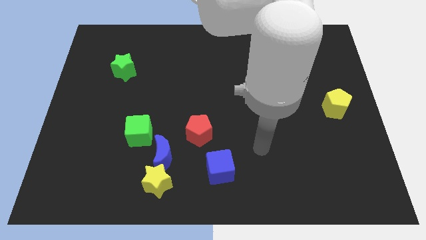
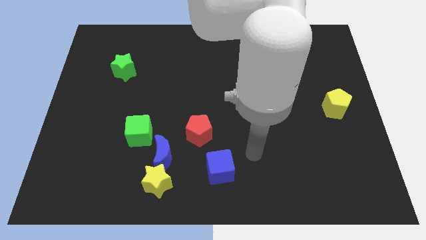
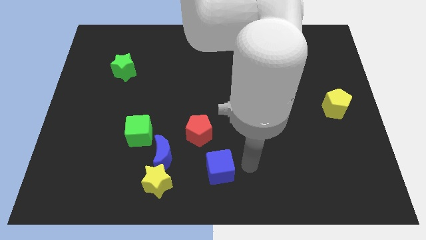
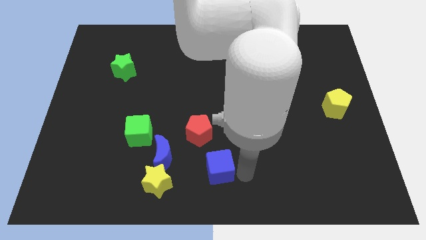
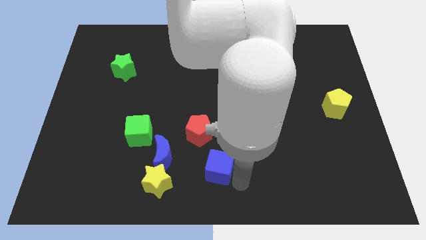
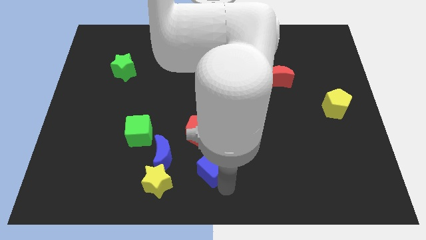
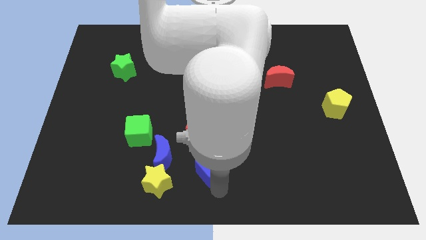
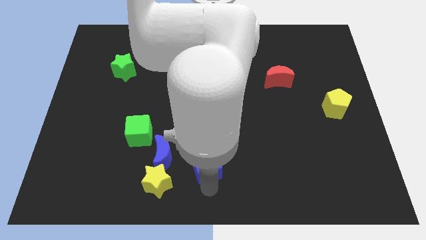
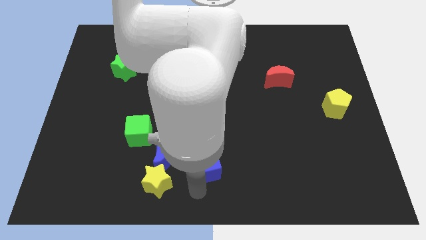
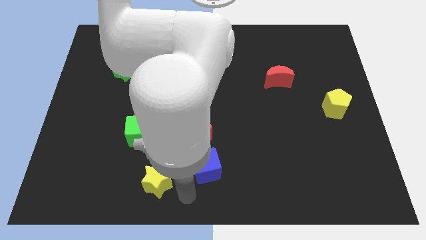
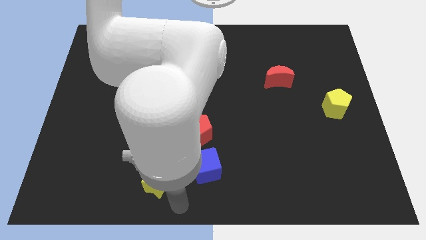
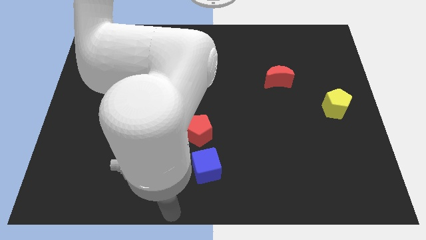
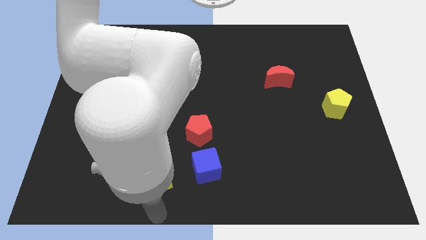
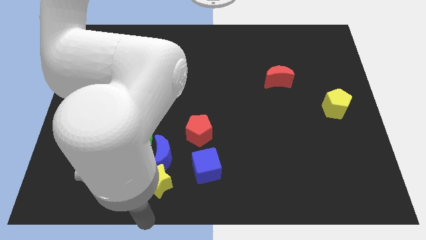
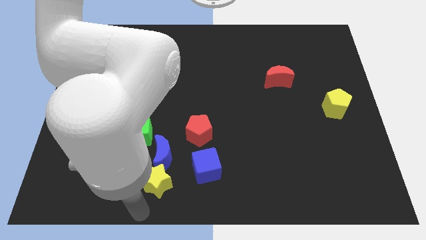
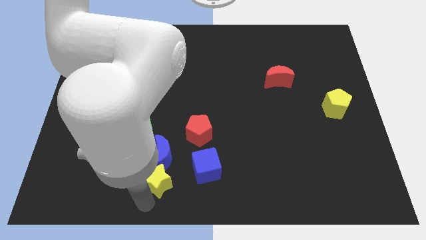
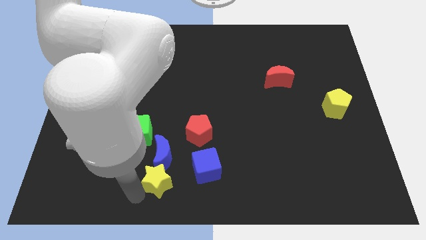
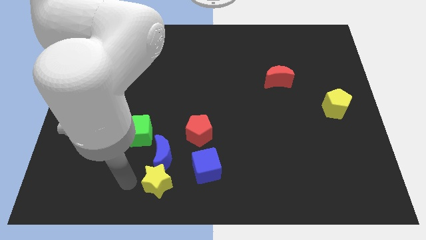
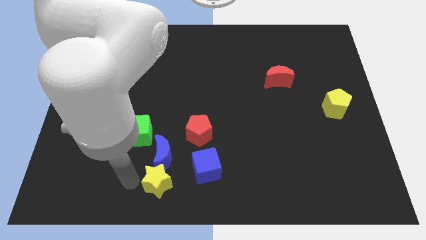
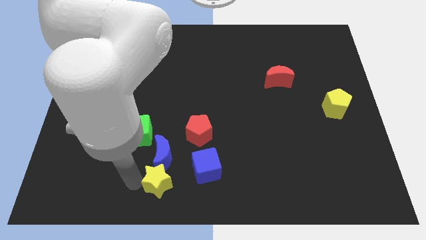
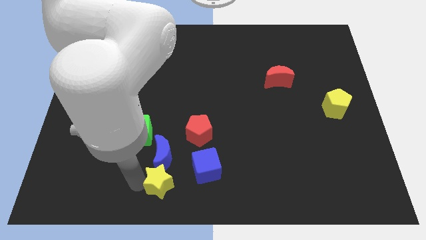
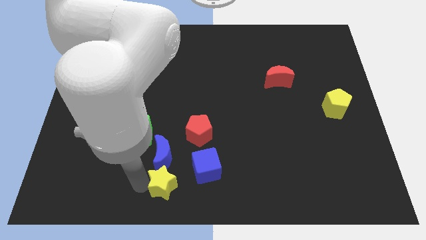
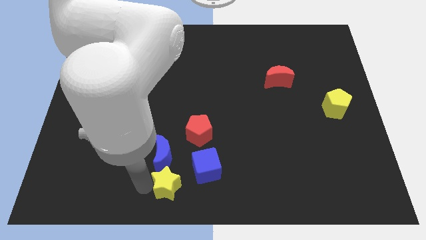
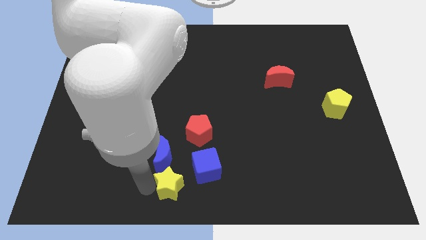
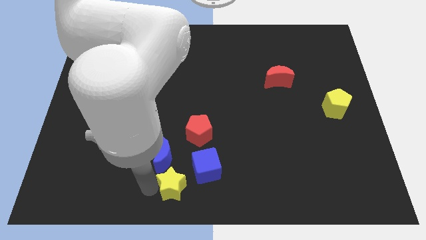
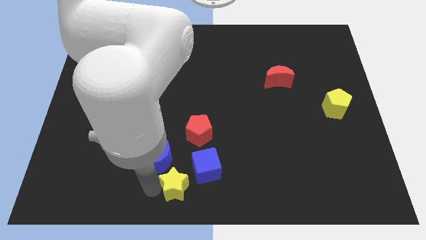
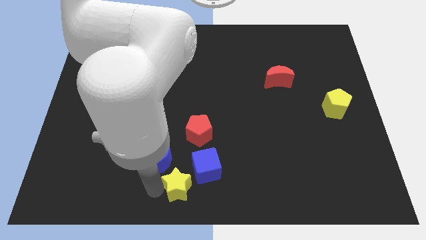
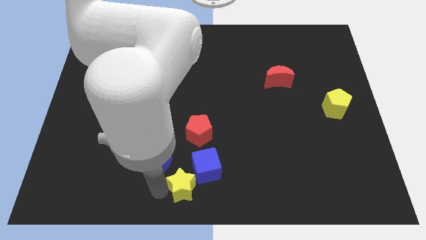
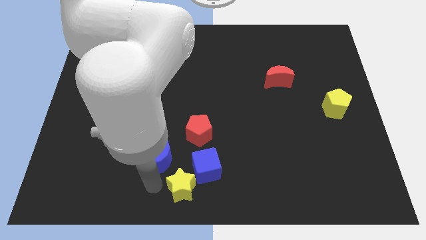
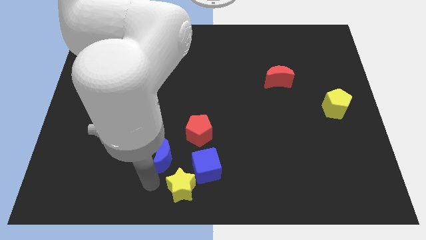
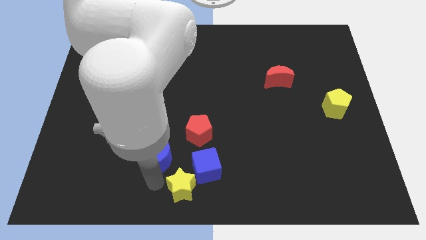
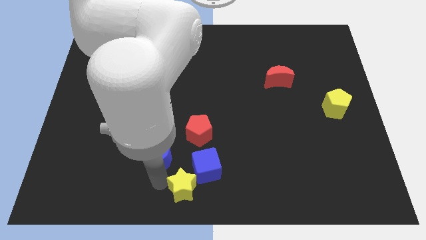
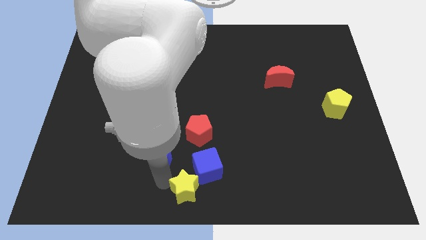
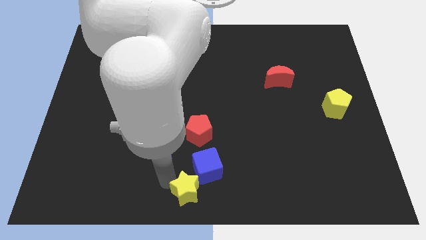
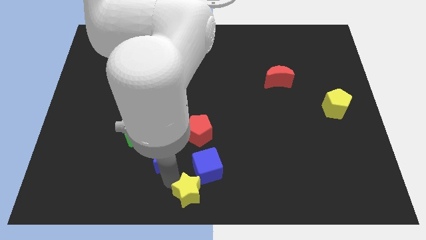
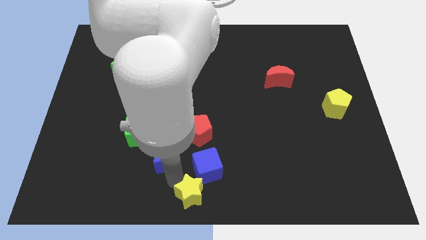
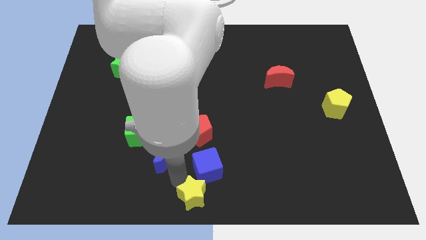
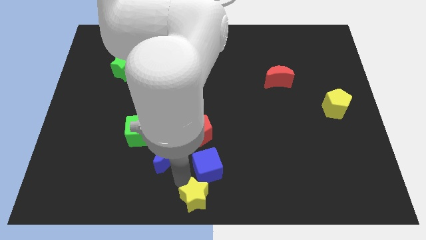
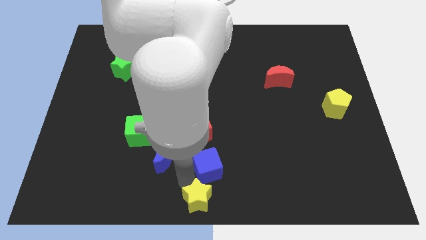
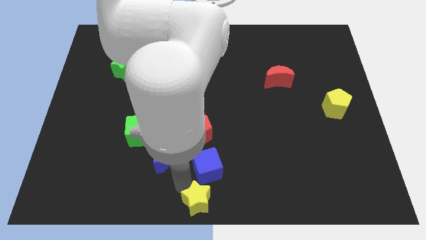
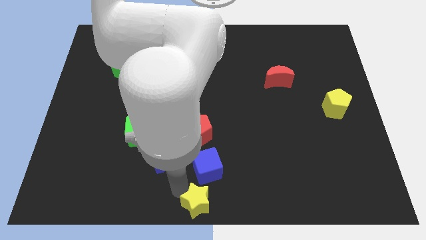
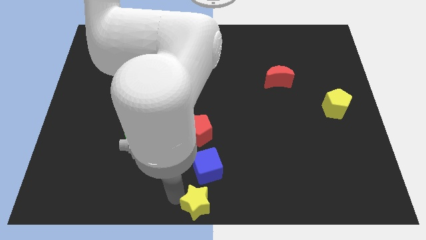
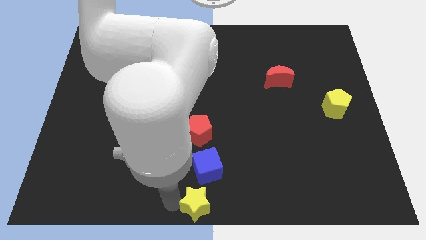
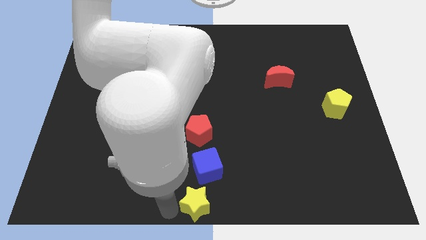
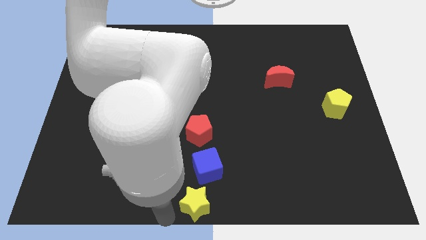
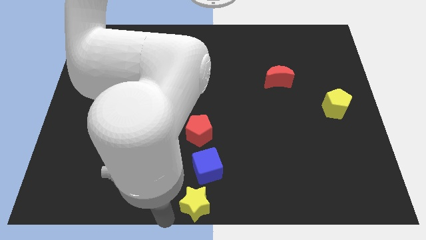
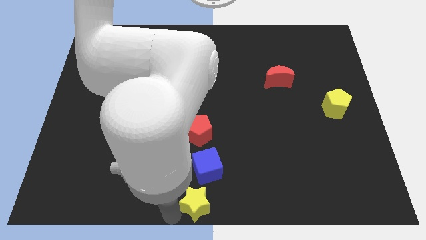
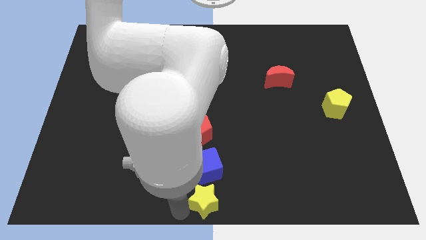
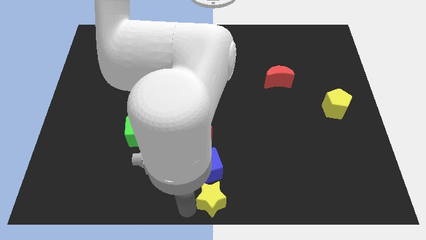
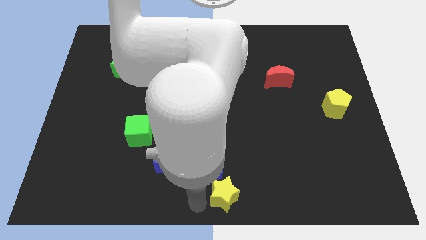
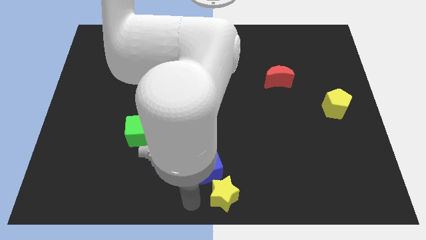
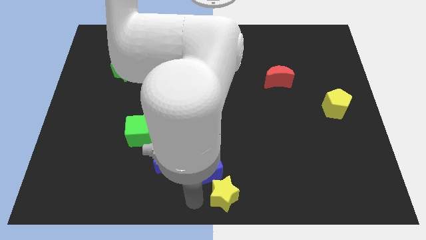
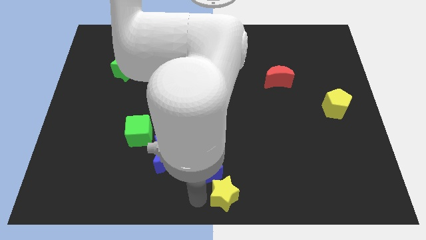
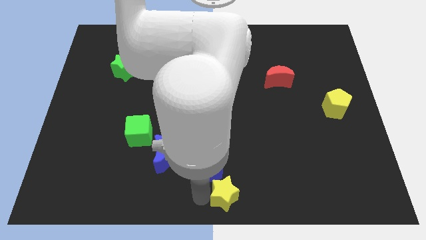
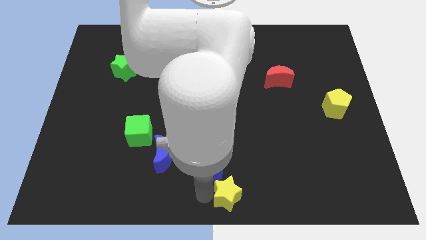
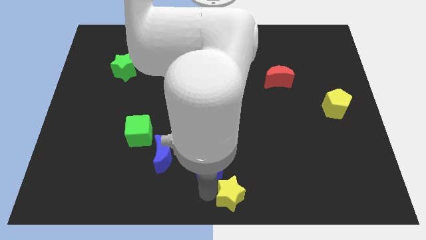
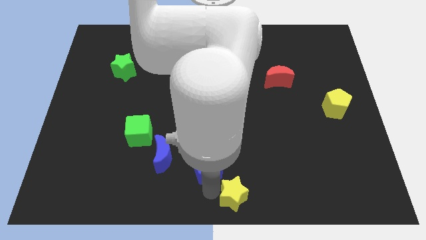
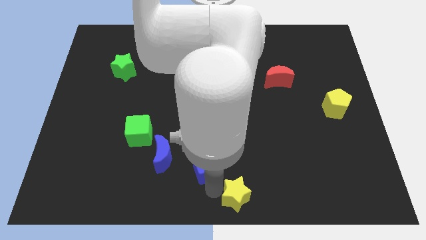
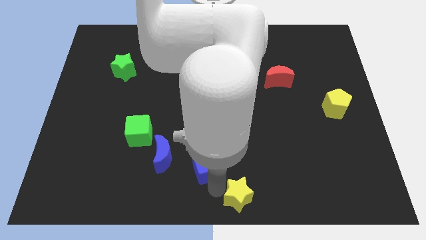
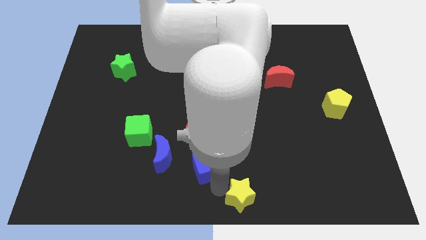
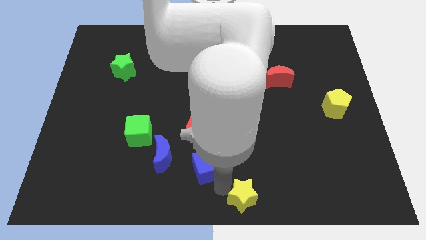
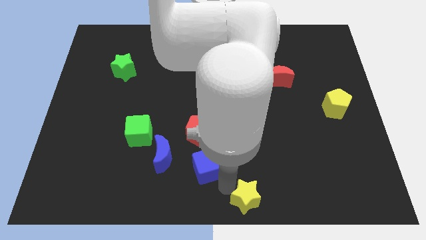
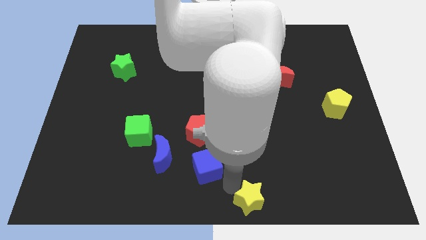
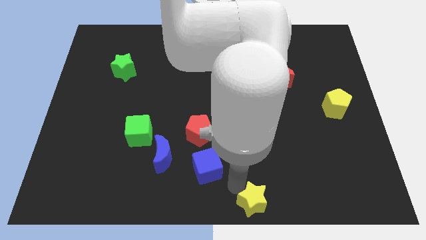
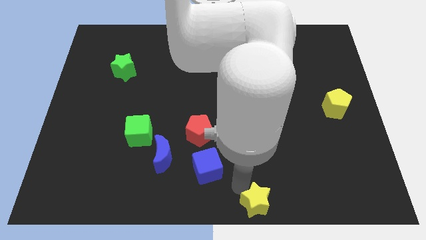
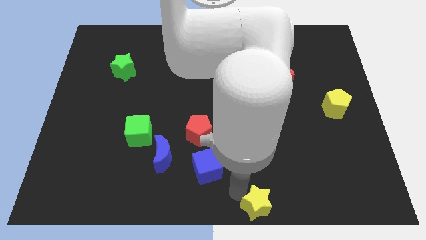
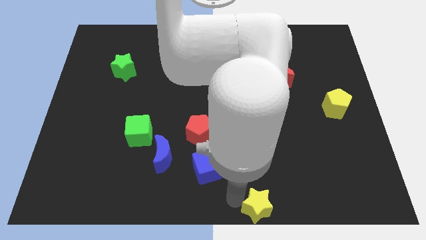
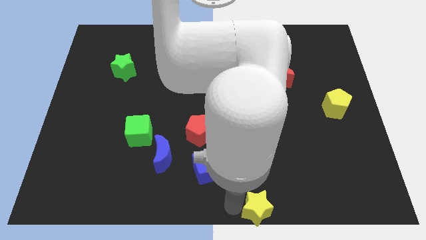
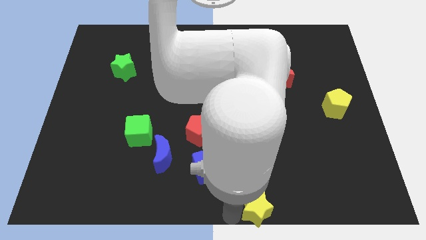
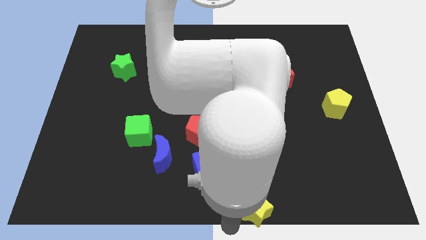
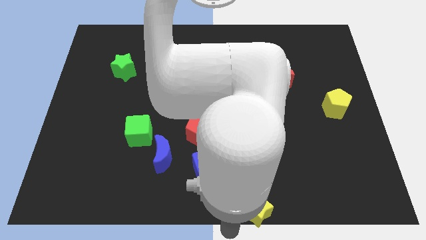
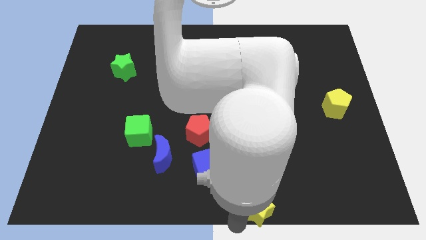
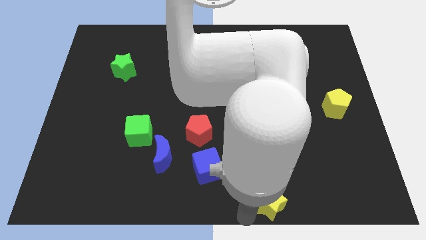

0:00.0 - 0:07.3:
move the yellow star right

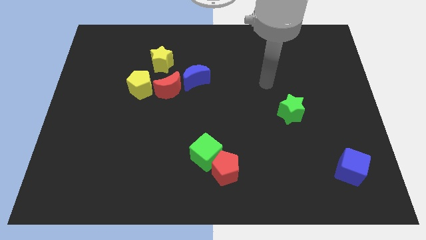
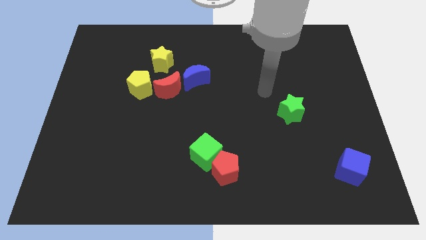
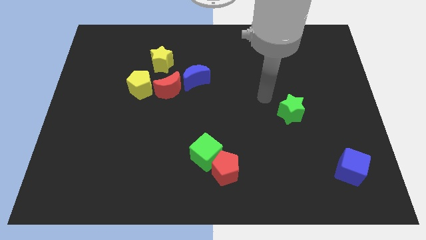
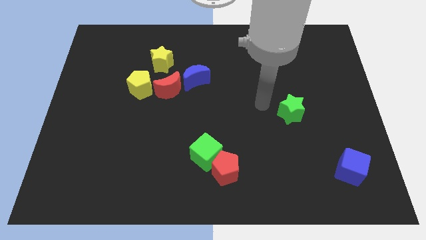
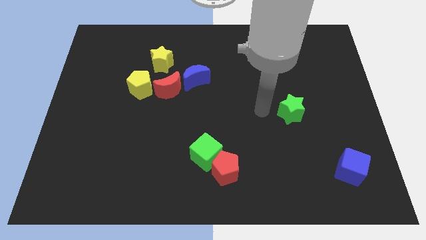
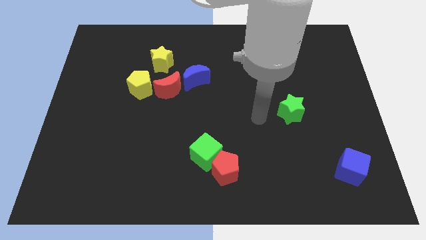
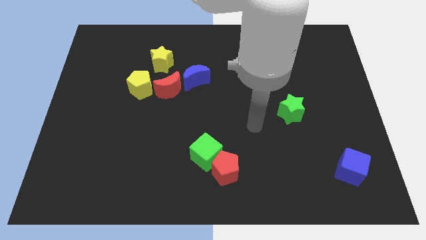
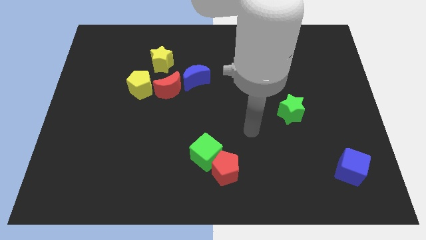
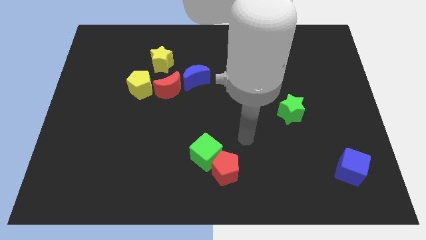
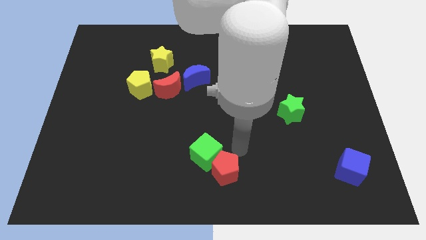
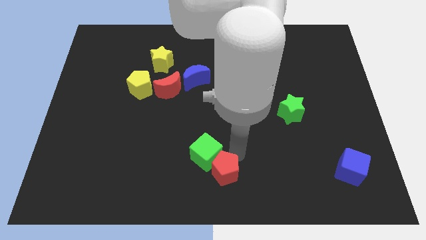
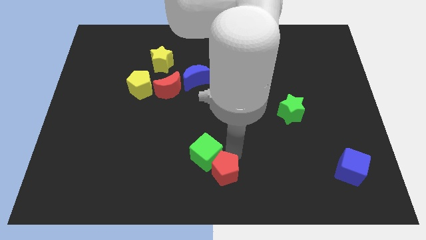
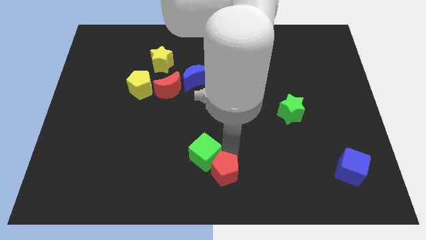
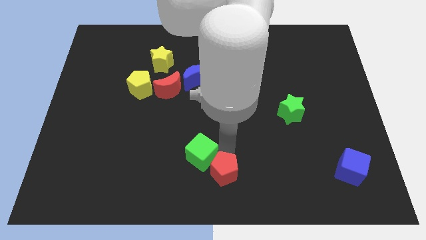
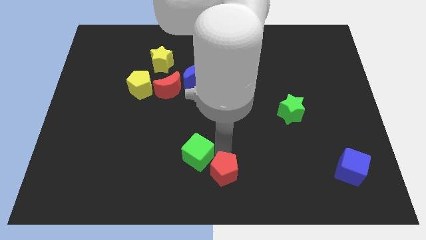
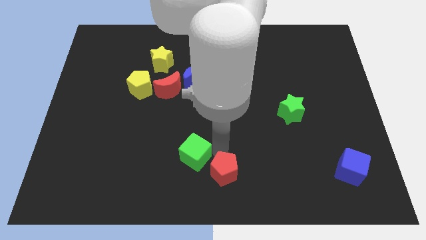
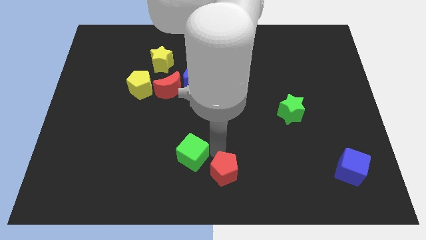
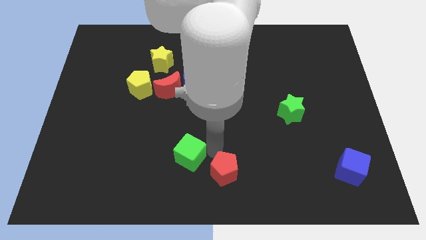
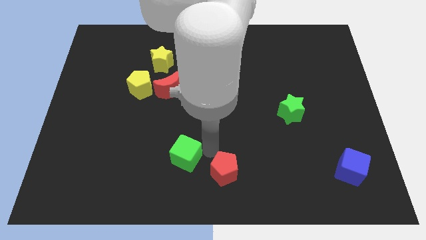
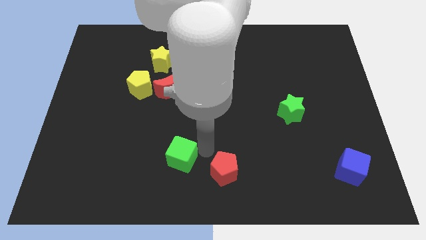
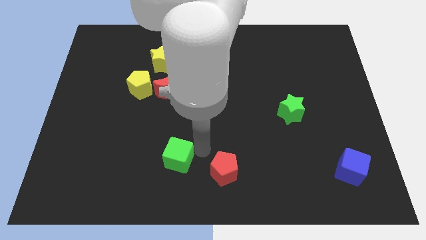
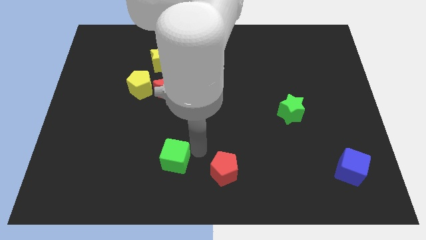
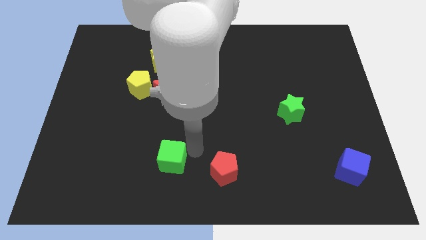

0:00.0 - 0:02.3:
slightly move the green cube left
